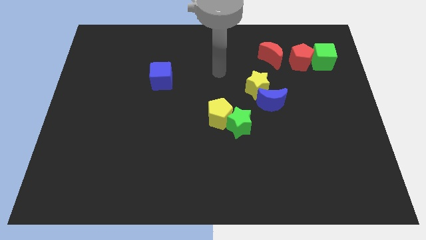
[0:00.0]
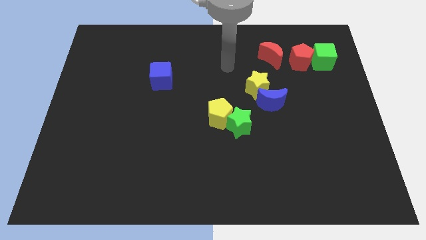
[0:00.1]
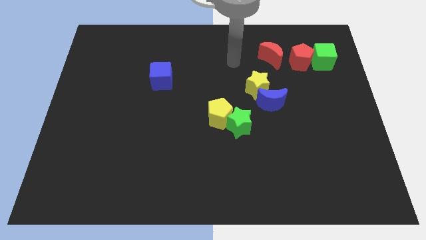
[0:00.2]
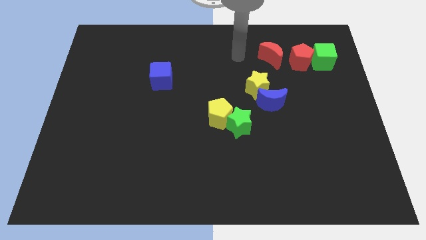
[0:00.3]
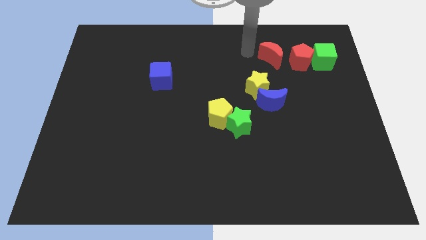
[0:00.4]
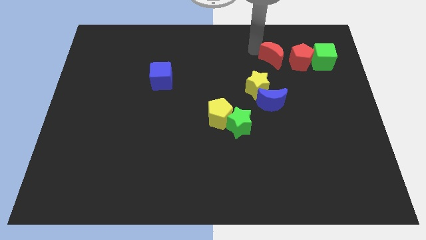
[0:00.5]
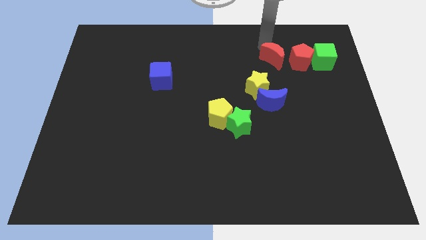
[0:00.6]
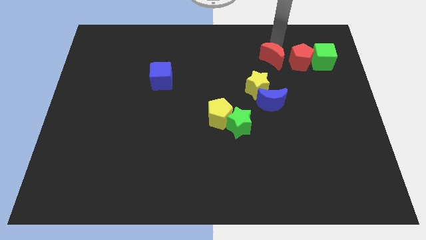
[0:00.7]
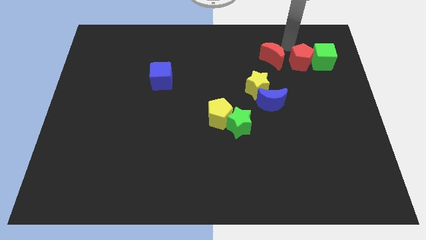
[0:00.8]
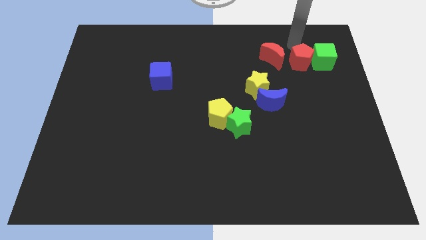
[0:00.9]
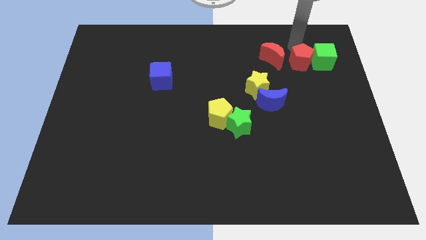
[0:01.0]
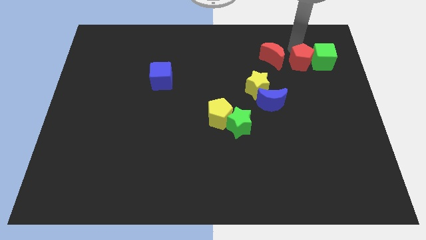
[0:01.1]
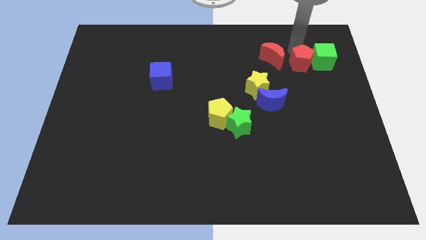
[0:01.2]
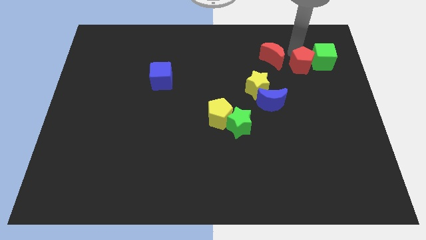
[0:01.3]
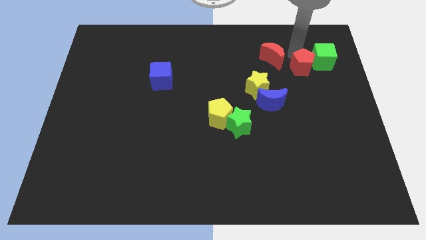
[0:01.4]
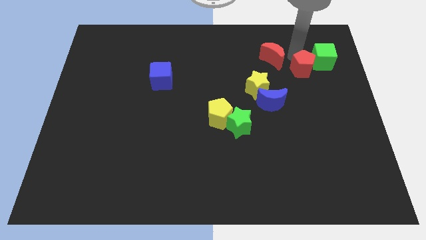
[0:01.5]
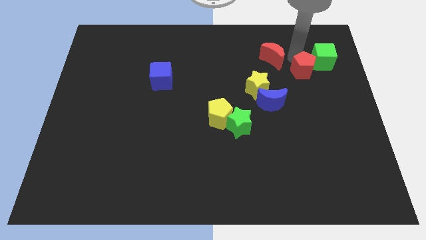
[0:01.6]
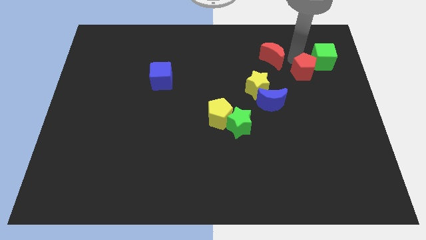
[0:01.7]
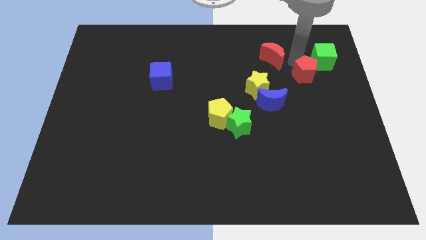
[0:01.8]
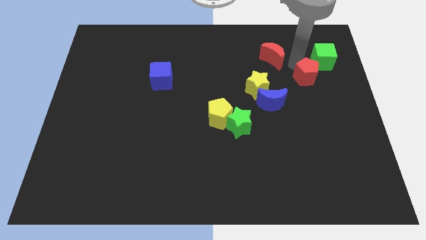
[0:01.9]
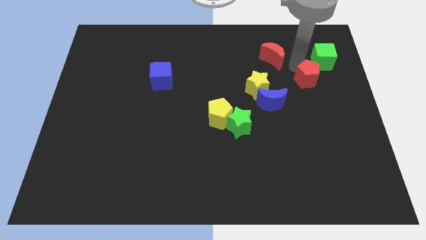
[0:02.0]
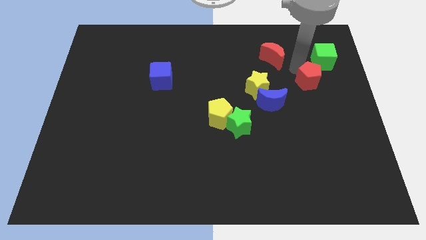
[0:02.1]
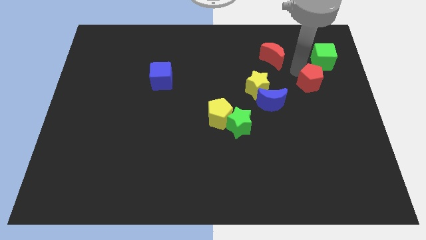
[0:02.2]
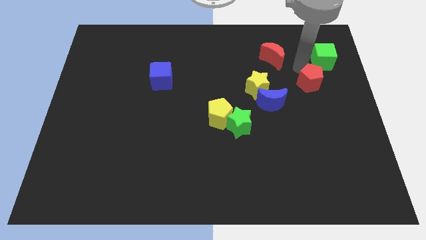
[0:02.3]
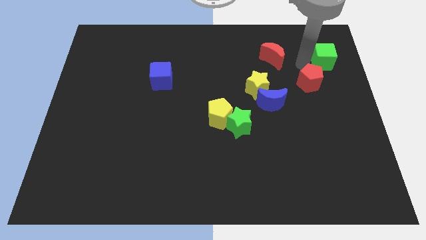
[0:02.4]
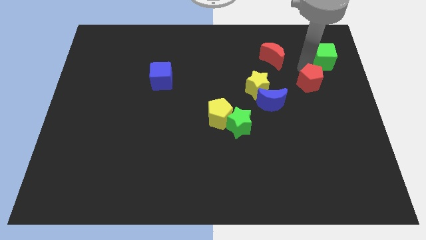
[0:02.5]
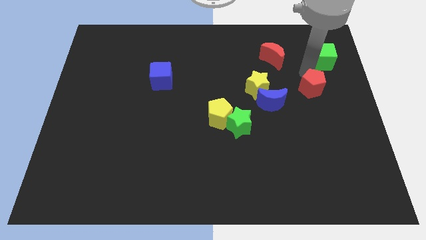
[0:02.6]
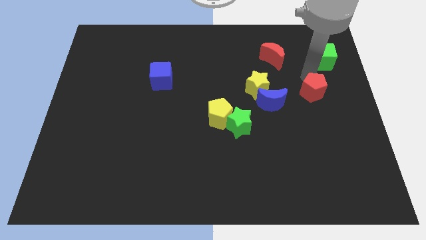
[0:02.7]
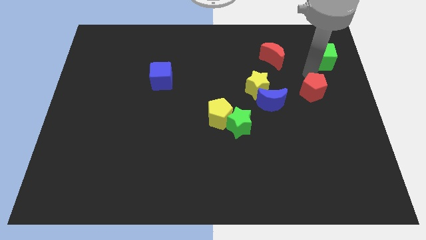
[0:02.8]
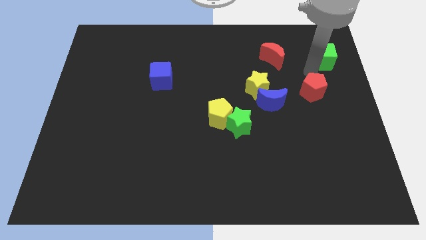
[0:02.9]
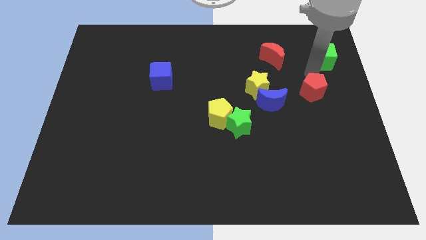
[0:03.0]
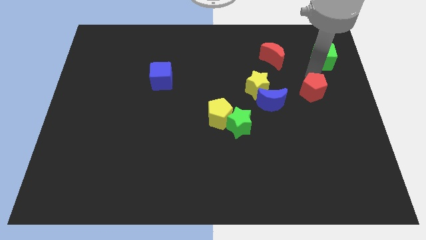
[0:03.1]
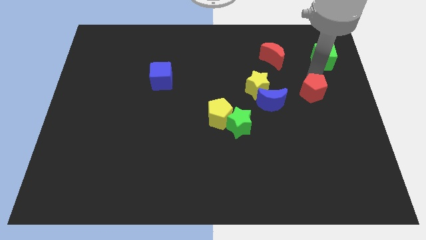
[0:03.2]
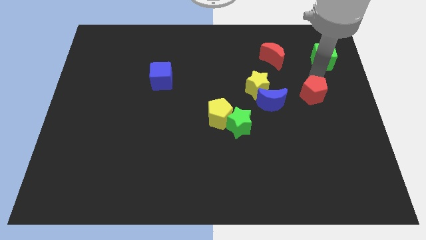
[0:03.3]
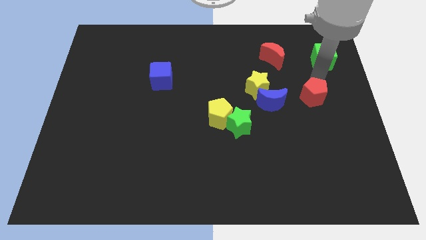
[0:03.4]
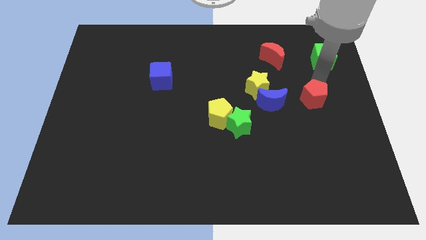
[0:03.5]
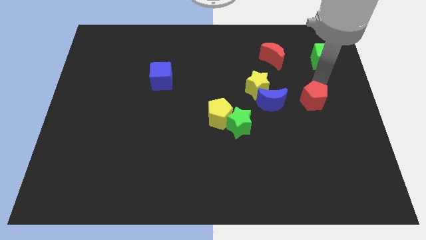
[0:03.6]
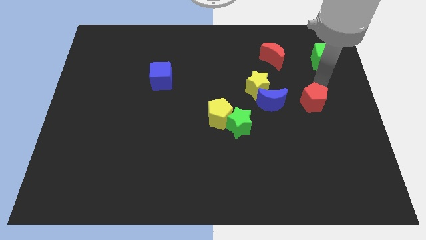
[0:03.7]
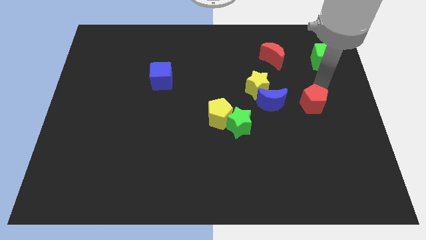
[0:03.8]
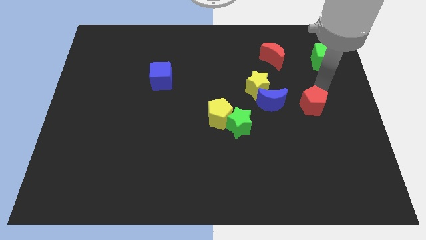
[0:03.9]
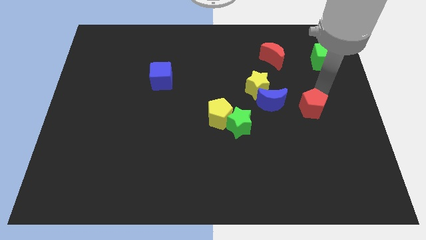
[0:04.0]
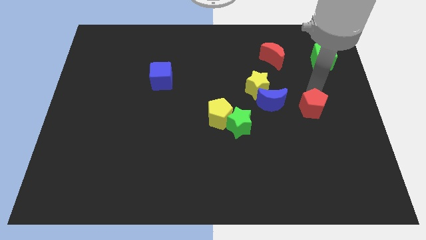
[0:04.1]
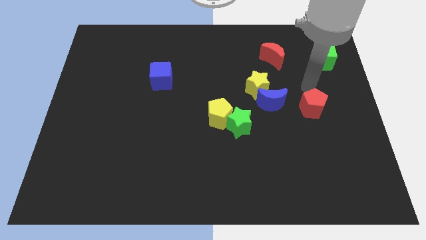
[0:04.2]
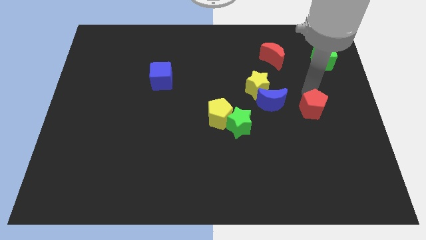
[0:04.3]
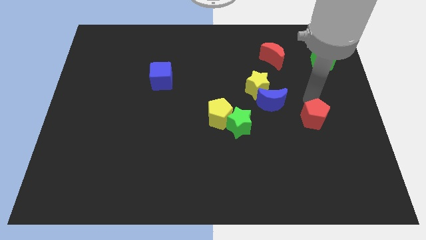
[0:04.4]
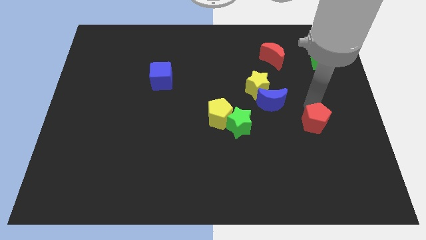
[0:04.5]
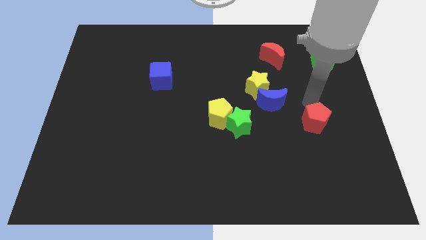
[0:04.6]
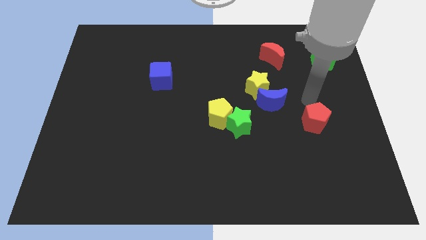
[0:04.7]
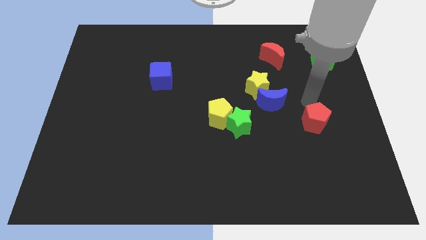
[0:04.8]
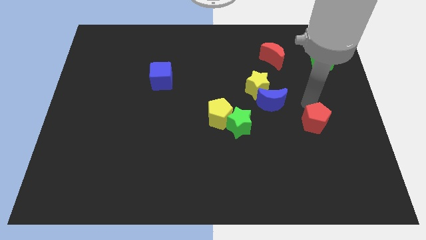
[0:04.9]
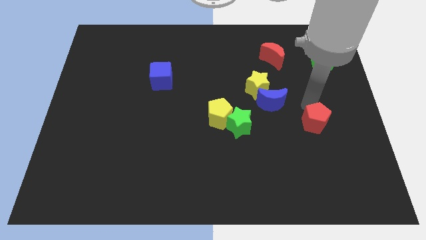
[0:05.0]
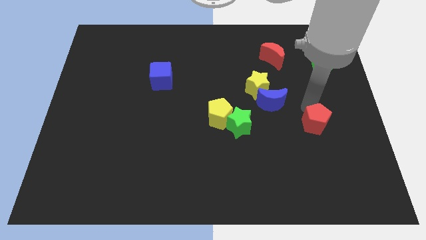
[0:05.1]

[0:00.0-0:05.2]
push the red pentagon down

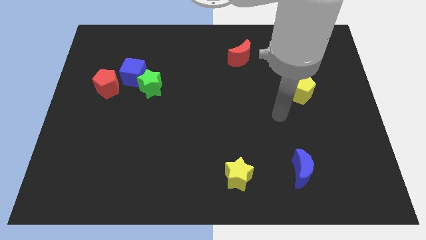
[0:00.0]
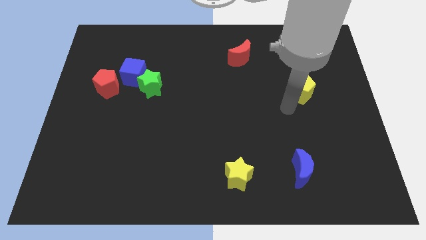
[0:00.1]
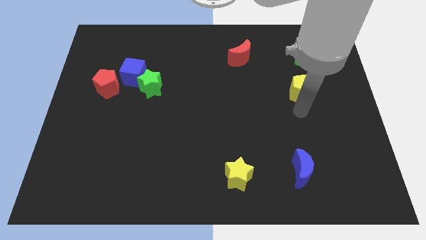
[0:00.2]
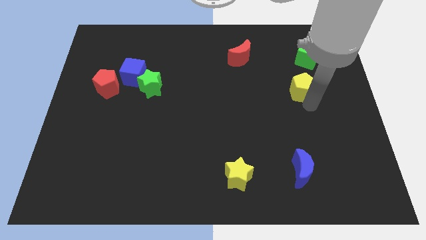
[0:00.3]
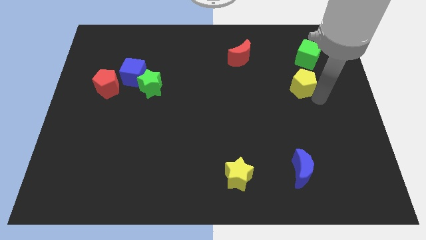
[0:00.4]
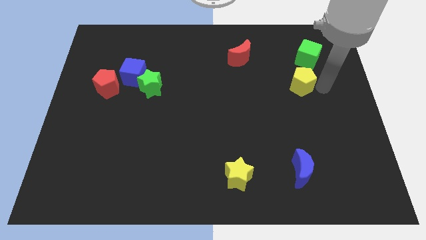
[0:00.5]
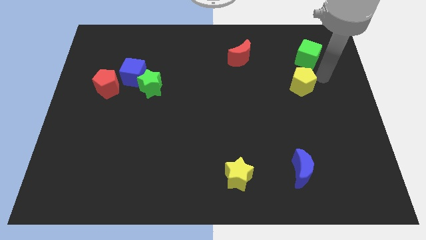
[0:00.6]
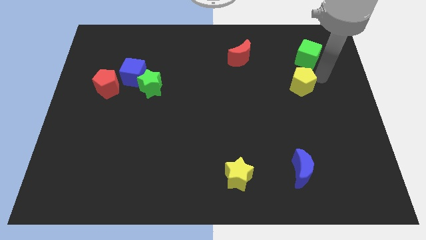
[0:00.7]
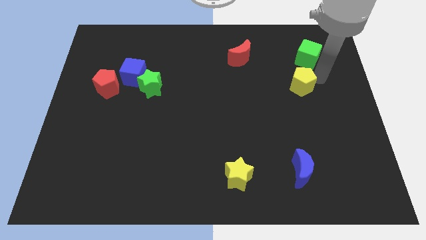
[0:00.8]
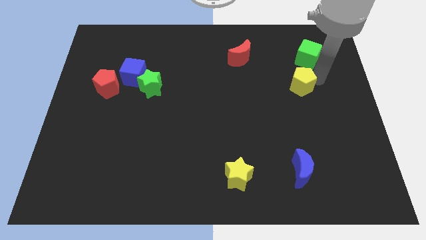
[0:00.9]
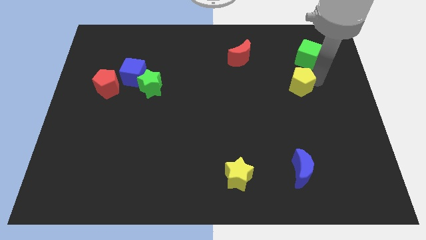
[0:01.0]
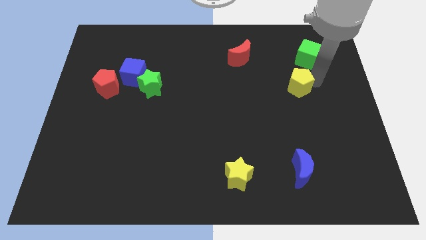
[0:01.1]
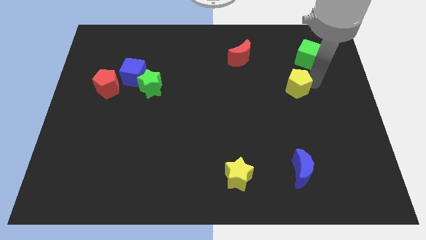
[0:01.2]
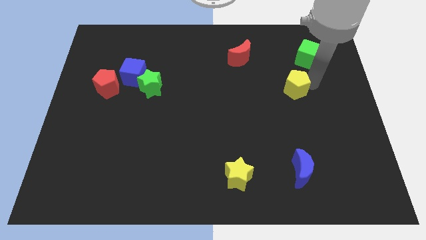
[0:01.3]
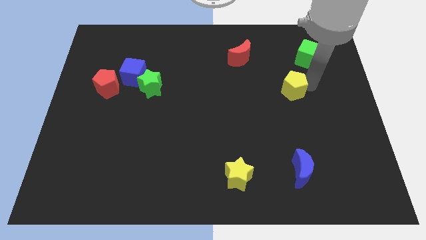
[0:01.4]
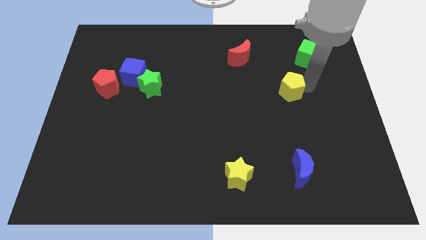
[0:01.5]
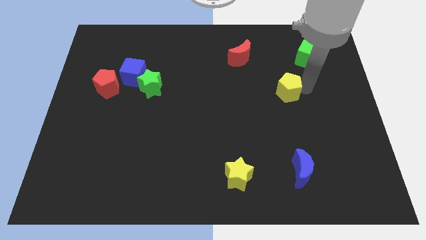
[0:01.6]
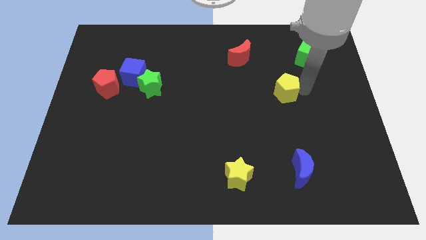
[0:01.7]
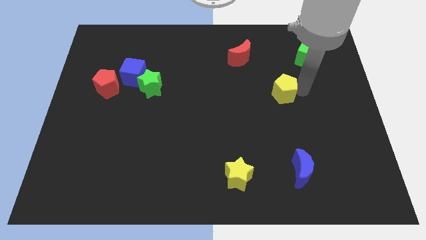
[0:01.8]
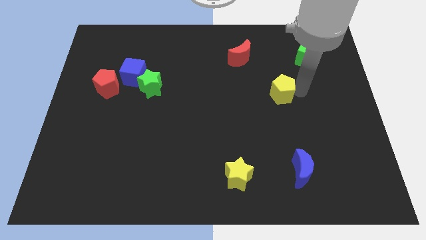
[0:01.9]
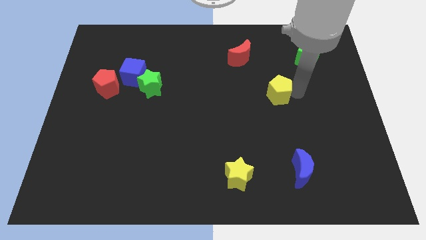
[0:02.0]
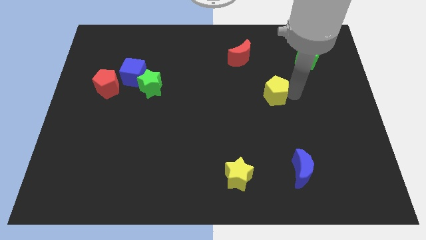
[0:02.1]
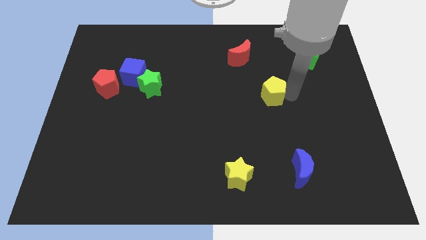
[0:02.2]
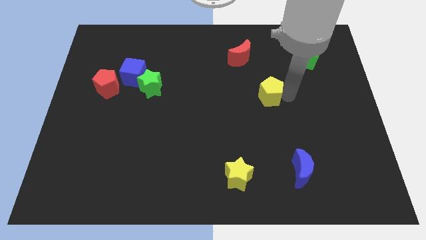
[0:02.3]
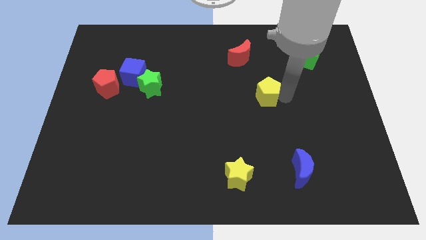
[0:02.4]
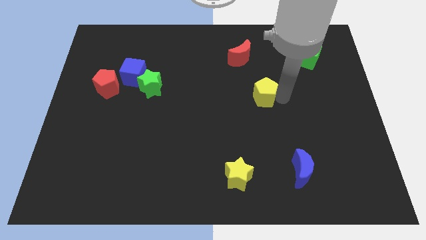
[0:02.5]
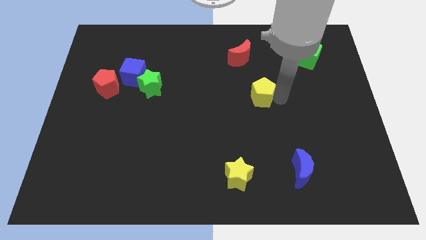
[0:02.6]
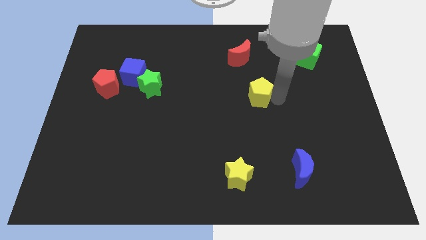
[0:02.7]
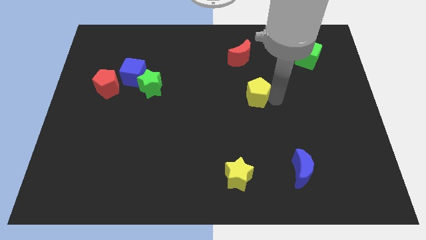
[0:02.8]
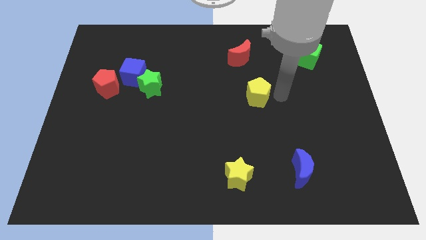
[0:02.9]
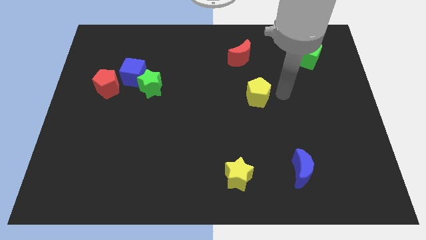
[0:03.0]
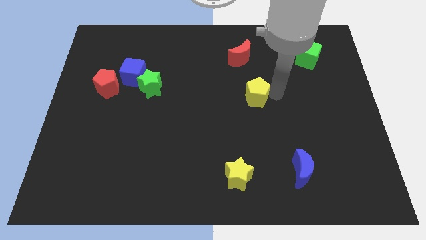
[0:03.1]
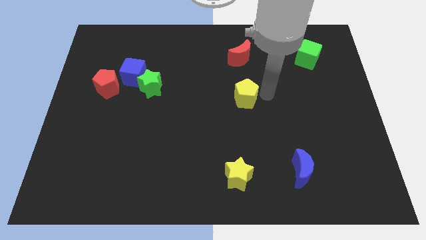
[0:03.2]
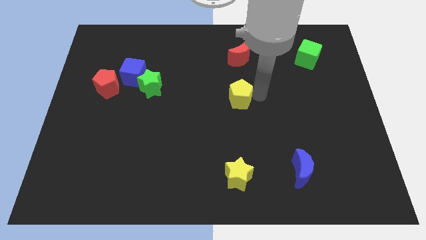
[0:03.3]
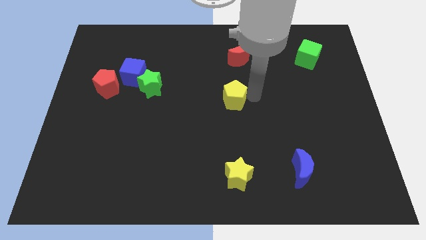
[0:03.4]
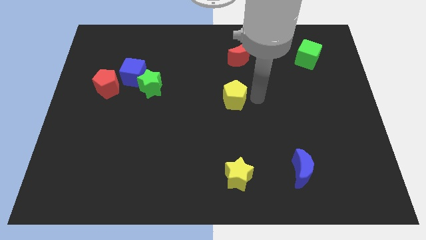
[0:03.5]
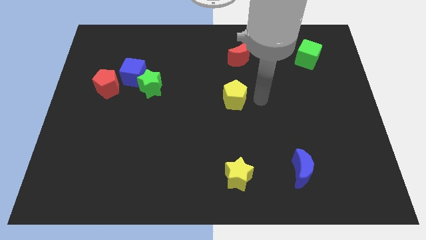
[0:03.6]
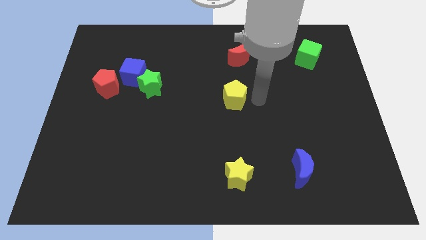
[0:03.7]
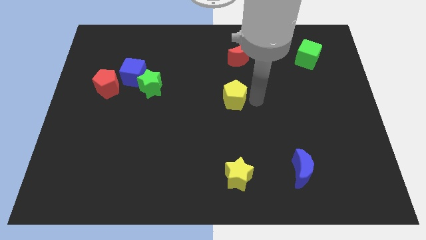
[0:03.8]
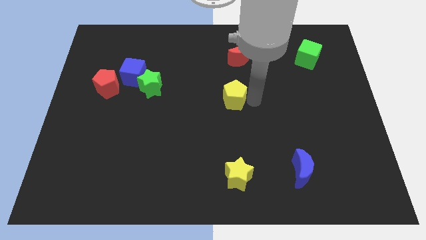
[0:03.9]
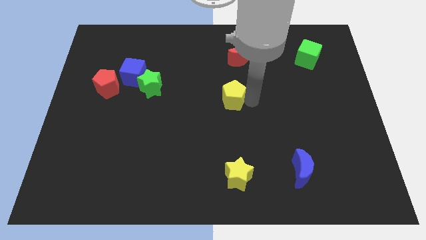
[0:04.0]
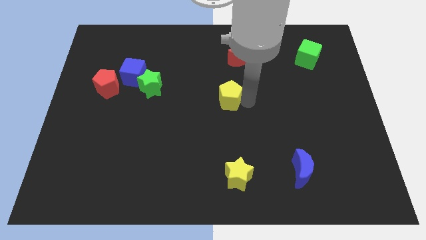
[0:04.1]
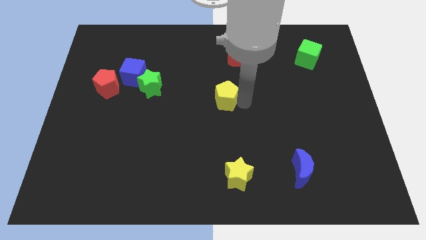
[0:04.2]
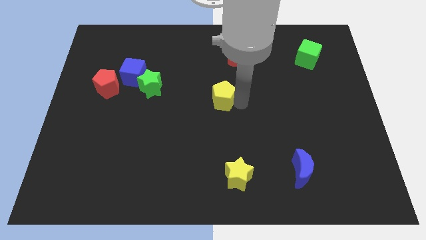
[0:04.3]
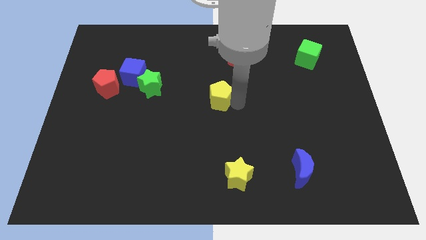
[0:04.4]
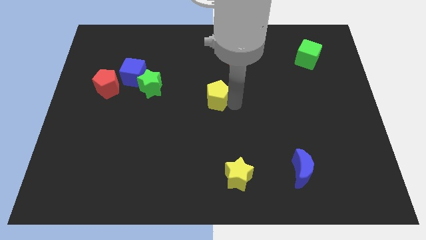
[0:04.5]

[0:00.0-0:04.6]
move the yellow pentagon to the left
